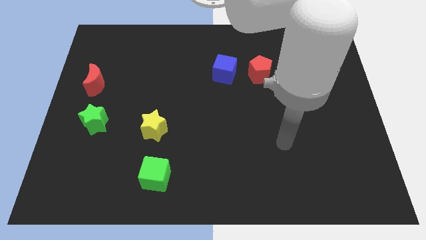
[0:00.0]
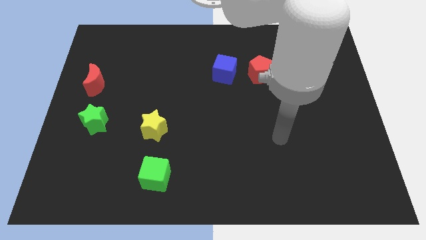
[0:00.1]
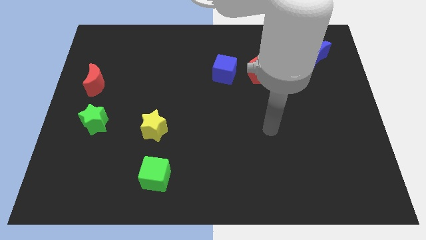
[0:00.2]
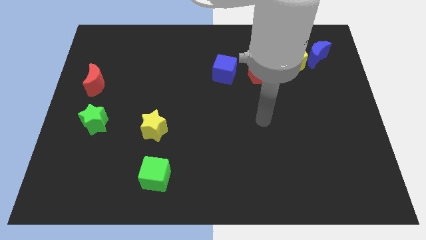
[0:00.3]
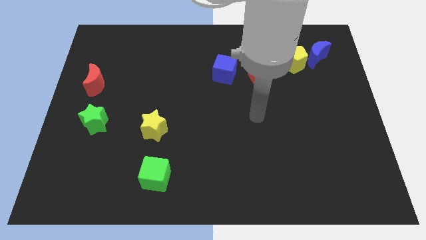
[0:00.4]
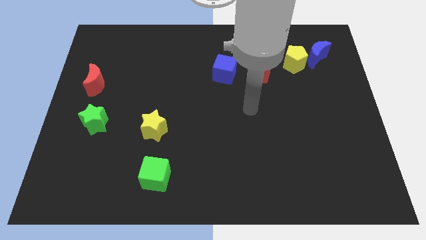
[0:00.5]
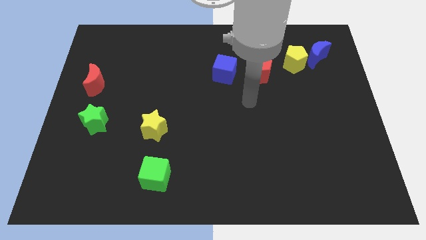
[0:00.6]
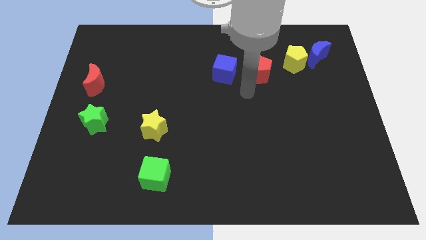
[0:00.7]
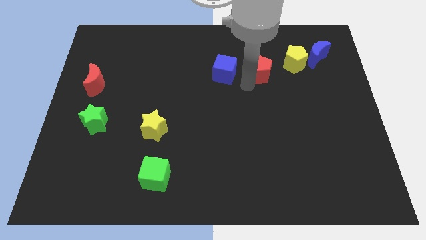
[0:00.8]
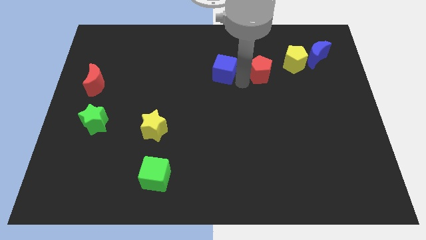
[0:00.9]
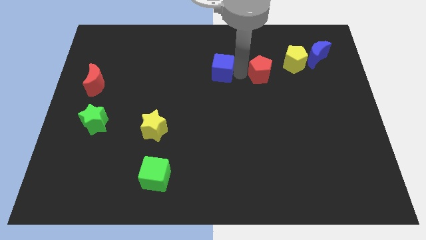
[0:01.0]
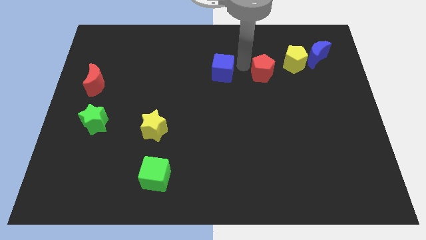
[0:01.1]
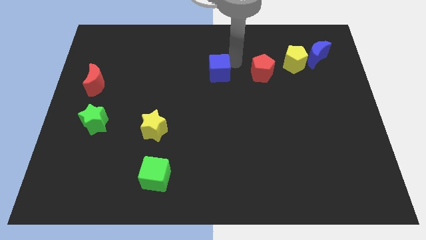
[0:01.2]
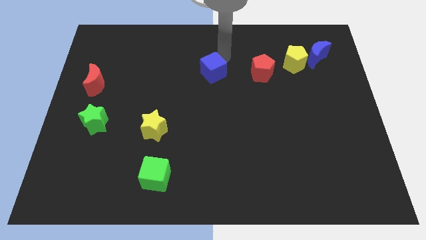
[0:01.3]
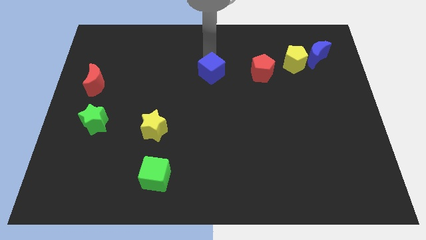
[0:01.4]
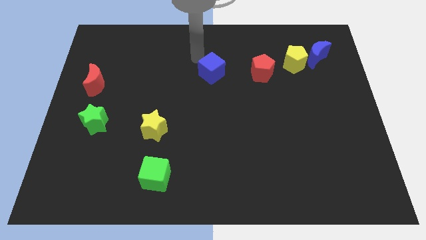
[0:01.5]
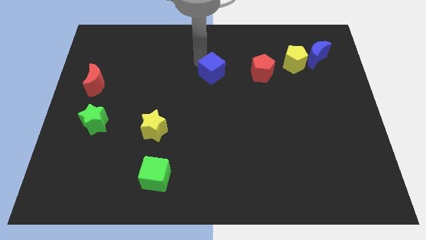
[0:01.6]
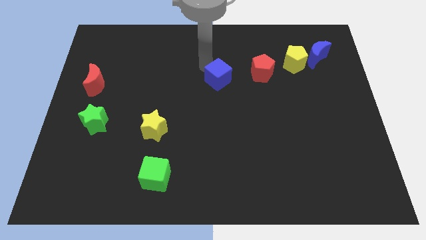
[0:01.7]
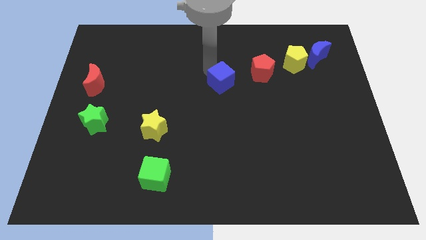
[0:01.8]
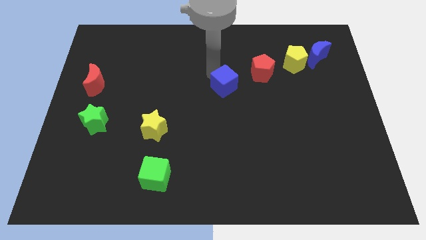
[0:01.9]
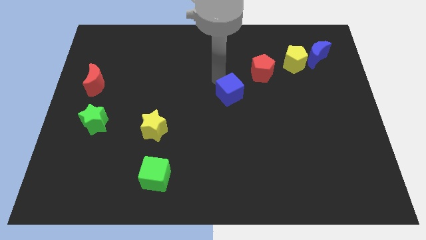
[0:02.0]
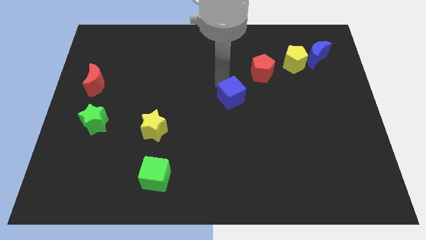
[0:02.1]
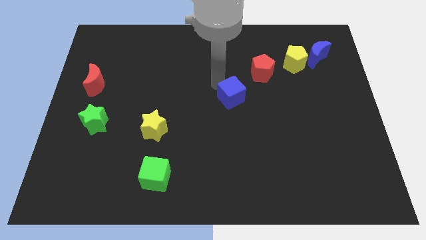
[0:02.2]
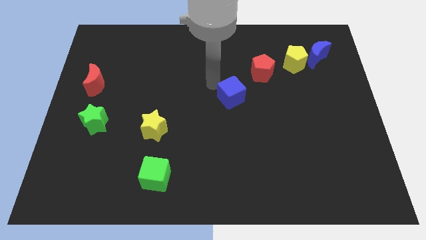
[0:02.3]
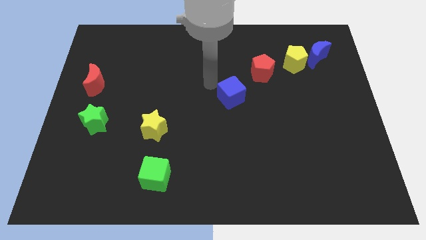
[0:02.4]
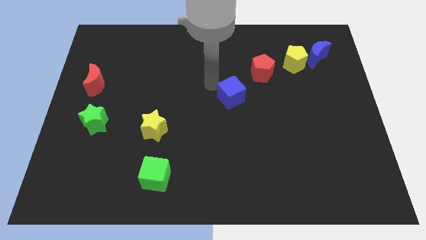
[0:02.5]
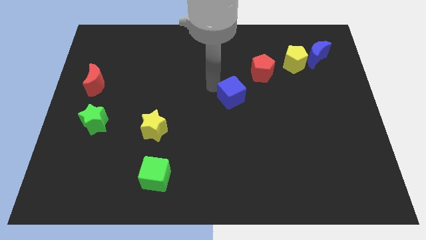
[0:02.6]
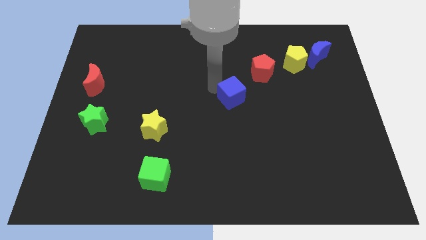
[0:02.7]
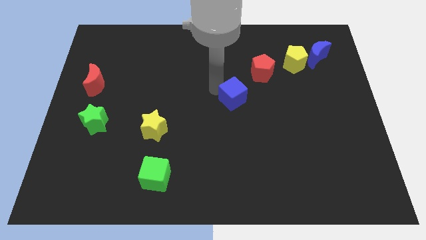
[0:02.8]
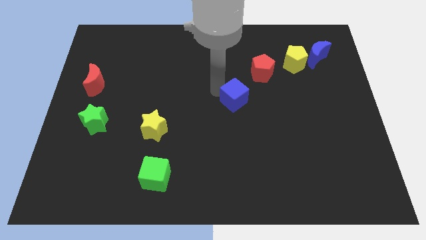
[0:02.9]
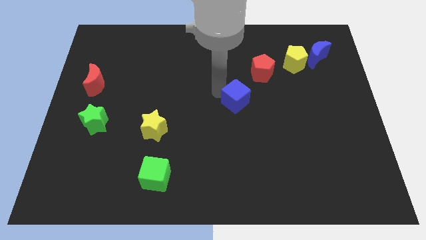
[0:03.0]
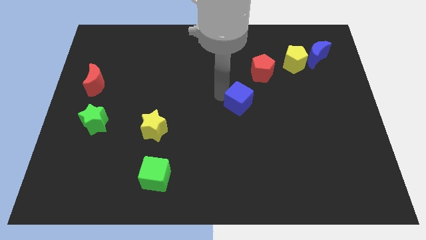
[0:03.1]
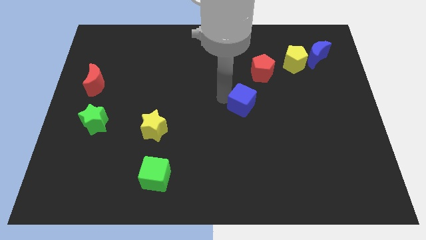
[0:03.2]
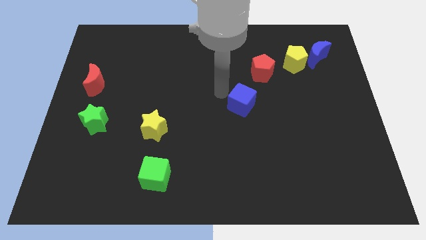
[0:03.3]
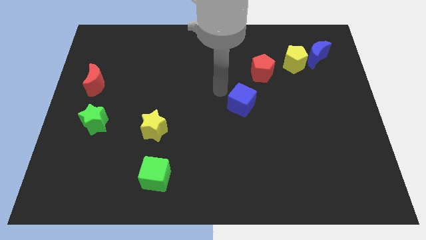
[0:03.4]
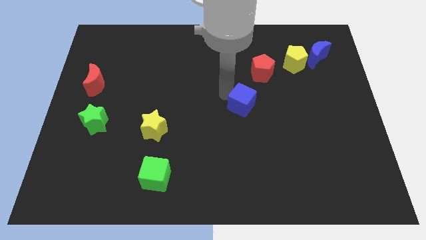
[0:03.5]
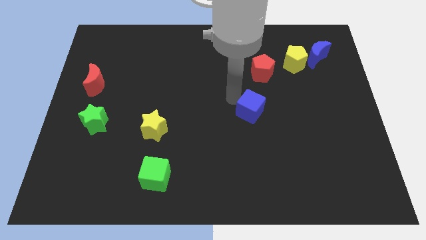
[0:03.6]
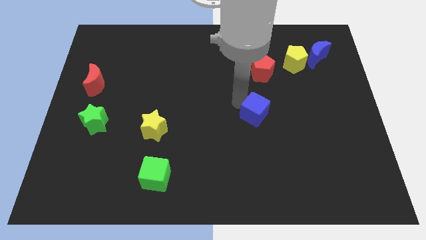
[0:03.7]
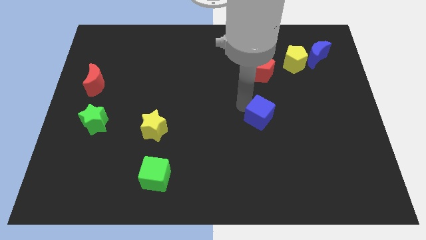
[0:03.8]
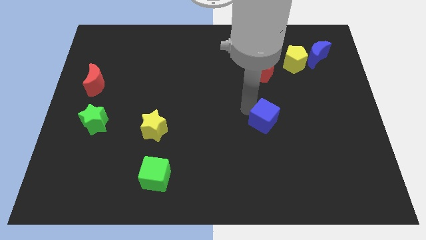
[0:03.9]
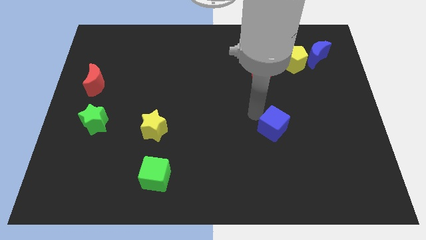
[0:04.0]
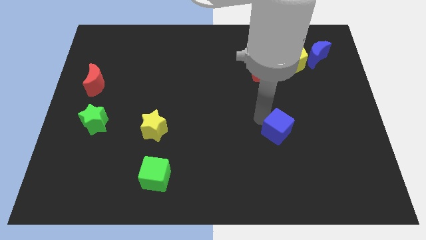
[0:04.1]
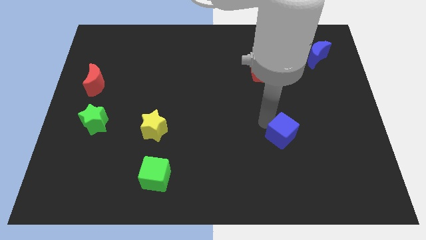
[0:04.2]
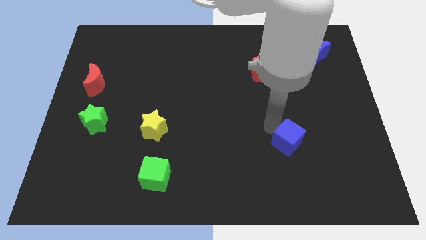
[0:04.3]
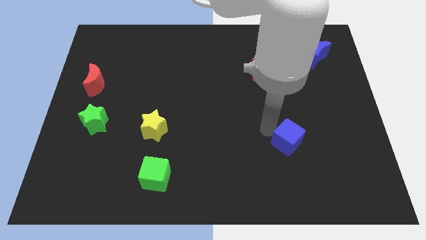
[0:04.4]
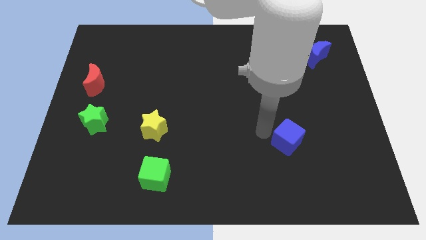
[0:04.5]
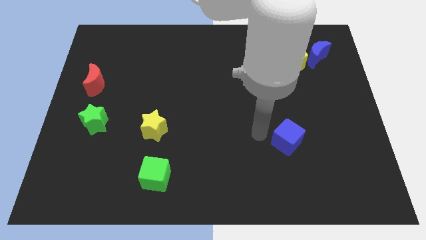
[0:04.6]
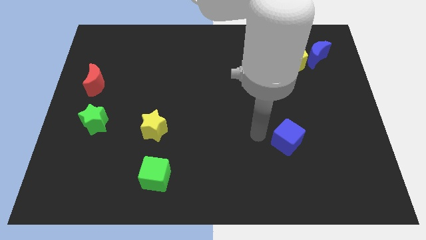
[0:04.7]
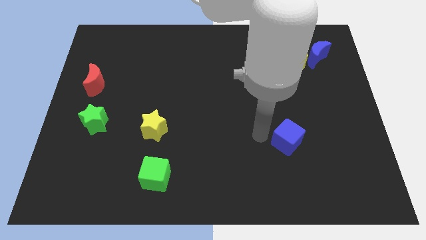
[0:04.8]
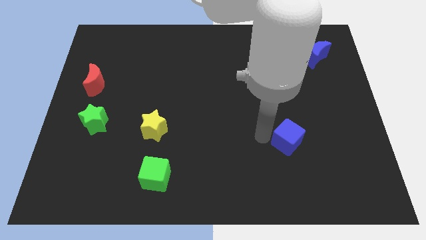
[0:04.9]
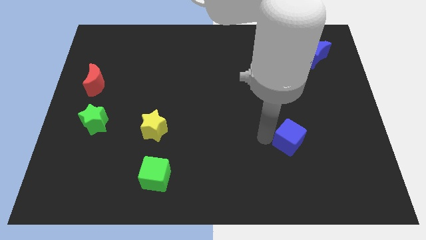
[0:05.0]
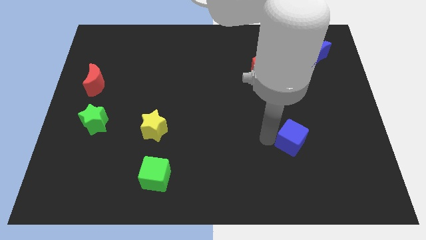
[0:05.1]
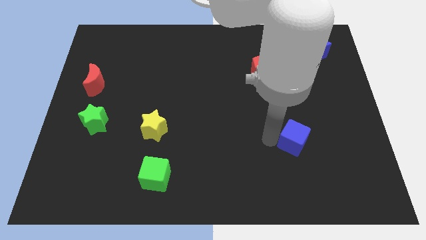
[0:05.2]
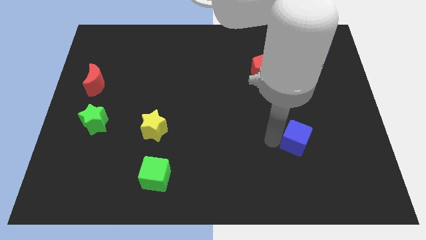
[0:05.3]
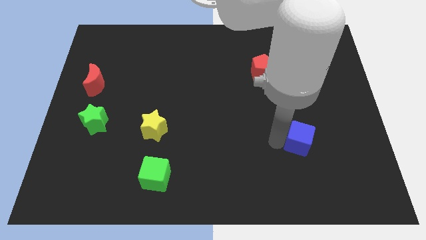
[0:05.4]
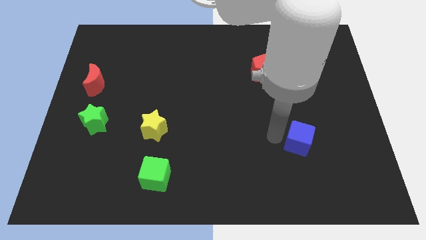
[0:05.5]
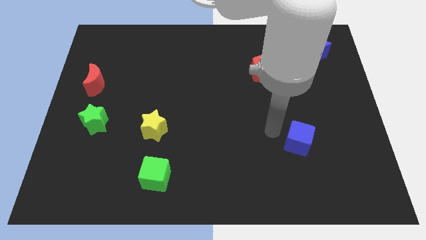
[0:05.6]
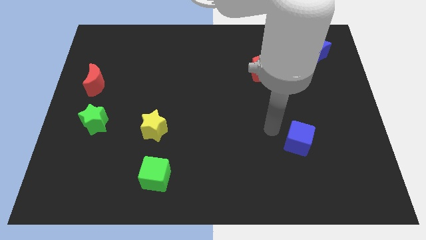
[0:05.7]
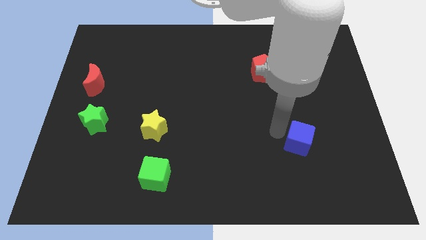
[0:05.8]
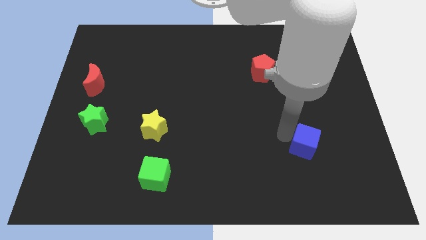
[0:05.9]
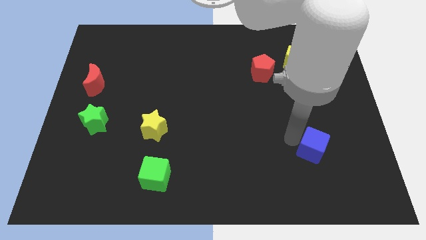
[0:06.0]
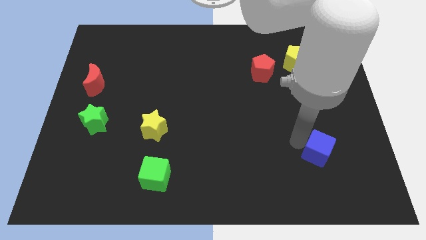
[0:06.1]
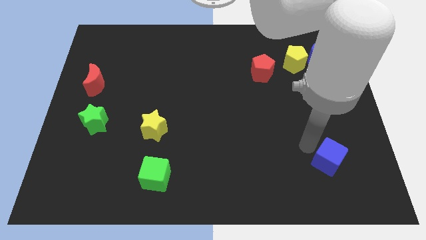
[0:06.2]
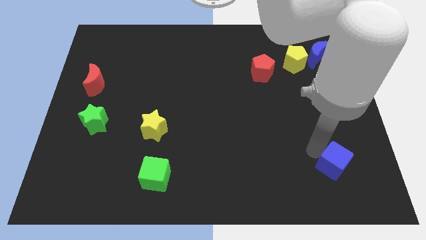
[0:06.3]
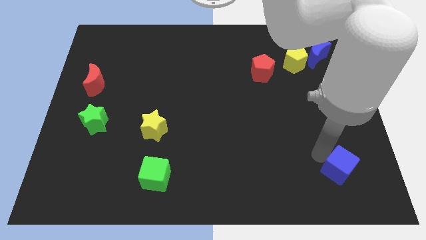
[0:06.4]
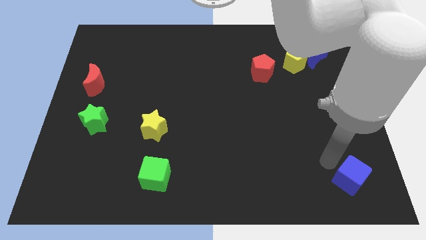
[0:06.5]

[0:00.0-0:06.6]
slide the blue cube to the bottom right
